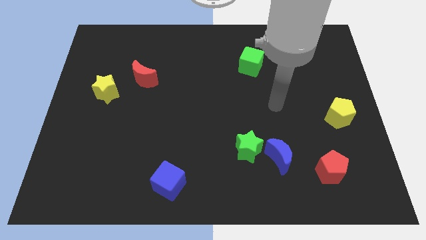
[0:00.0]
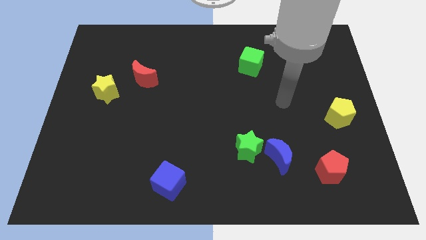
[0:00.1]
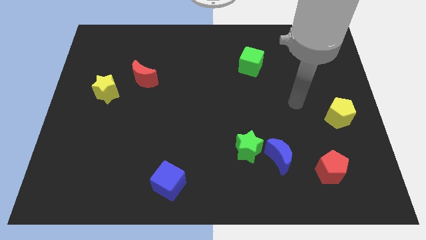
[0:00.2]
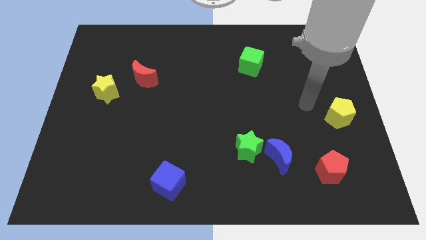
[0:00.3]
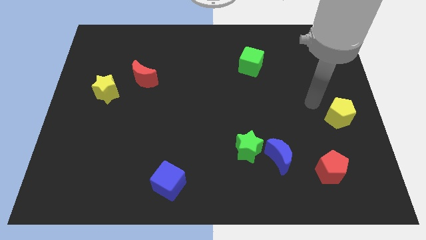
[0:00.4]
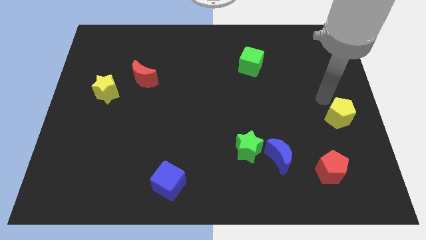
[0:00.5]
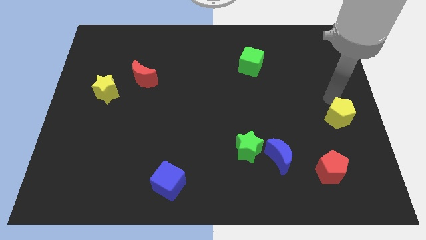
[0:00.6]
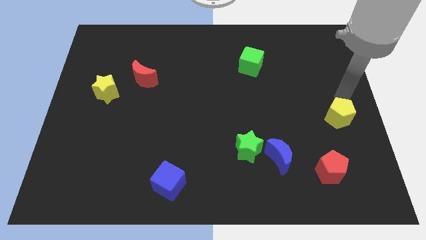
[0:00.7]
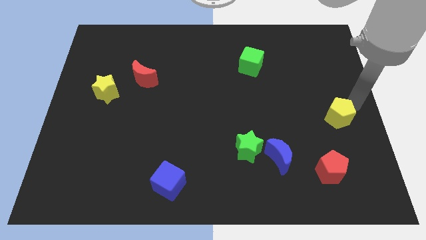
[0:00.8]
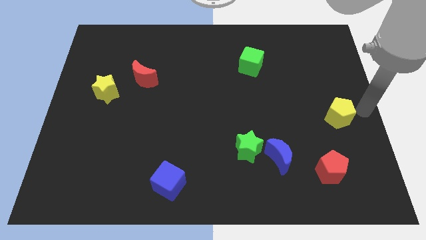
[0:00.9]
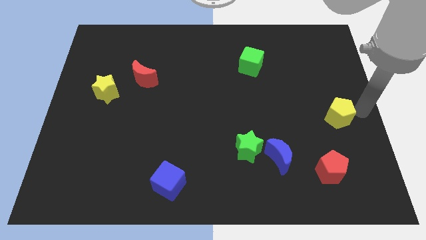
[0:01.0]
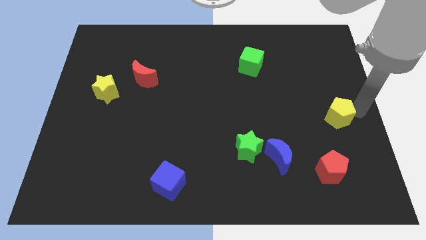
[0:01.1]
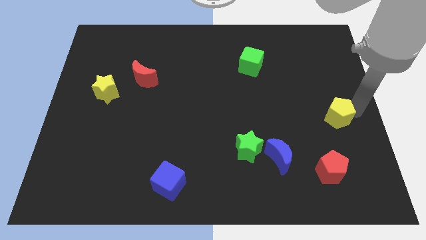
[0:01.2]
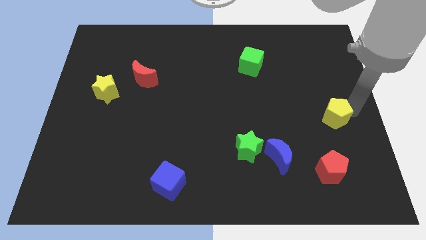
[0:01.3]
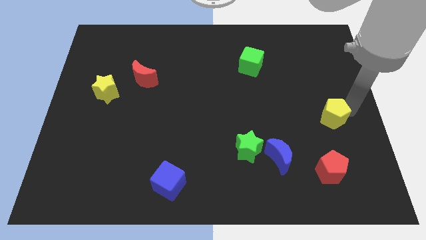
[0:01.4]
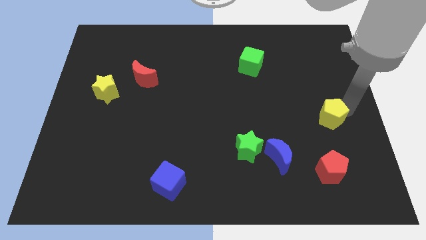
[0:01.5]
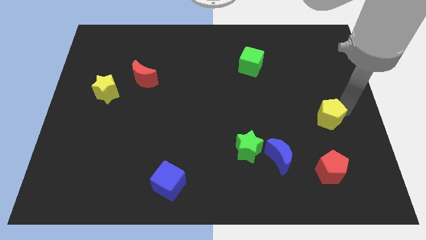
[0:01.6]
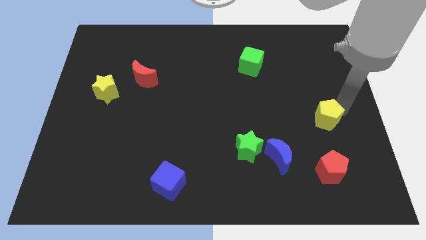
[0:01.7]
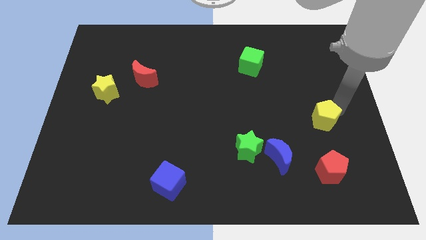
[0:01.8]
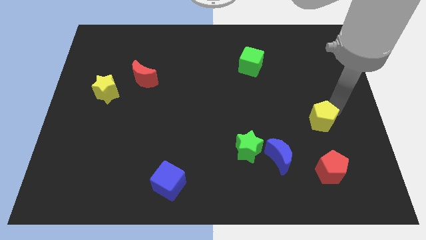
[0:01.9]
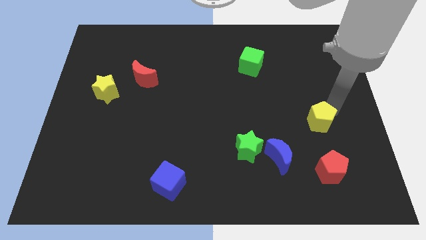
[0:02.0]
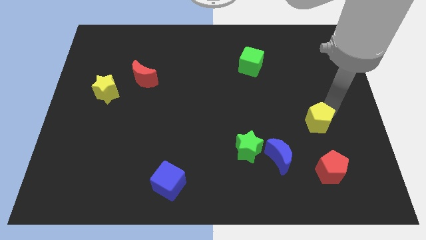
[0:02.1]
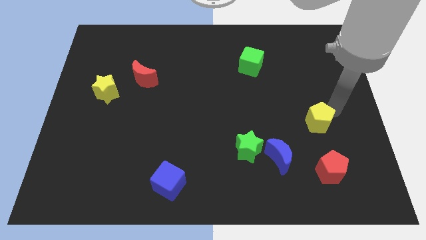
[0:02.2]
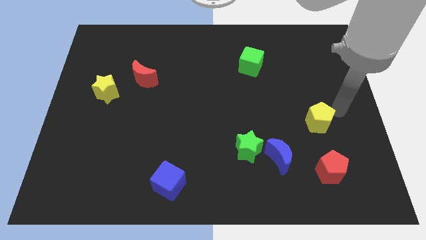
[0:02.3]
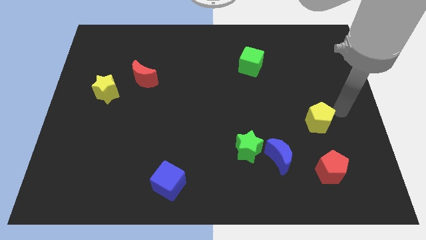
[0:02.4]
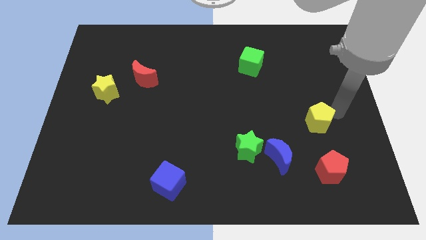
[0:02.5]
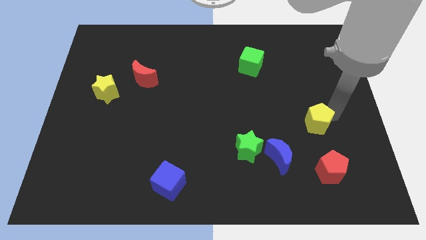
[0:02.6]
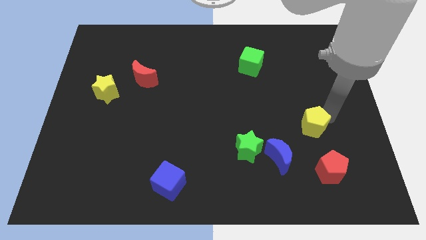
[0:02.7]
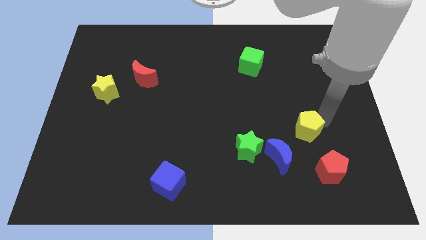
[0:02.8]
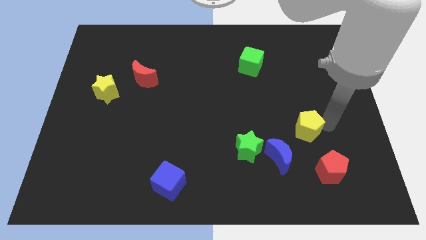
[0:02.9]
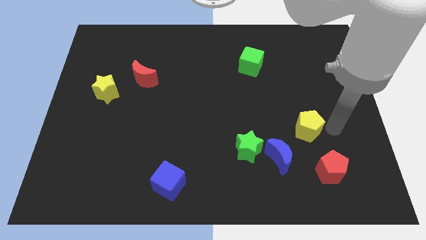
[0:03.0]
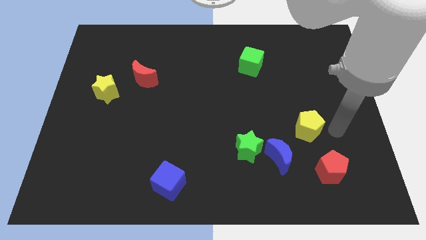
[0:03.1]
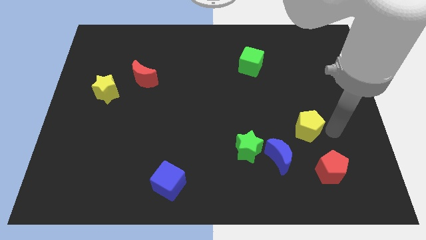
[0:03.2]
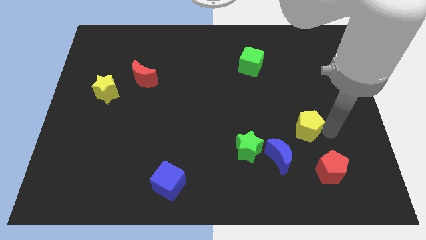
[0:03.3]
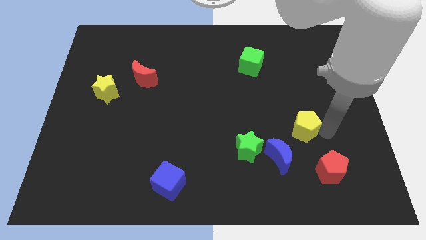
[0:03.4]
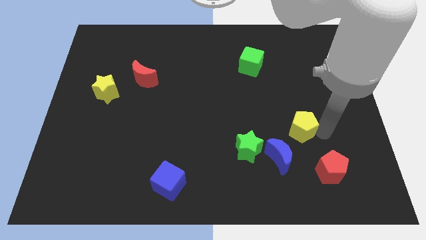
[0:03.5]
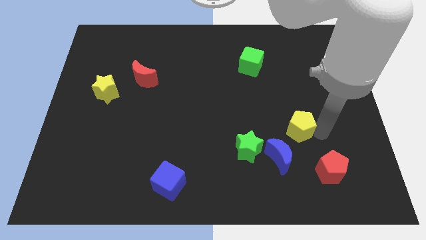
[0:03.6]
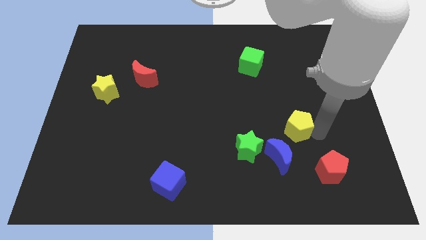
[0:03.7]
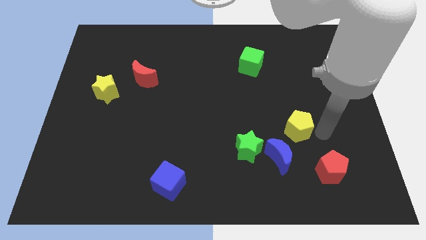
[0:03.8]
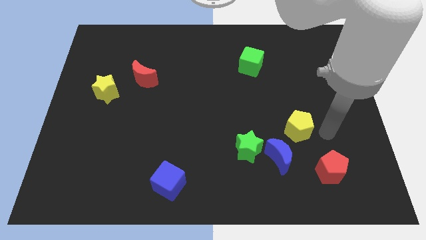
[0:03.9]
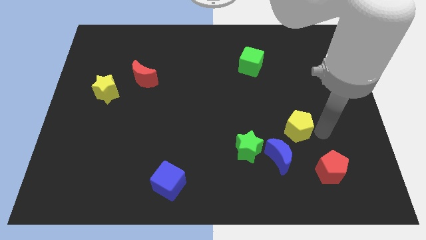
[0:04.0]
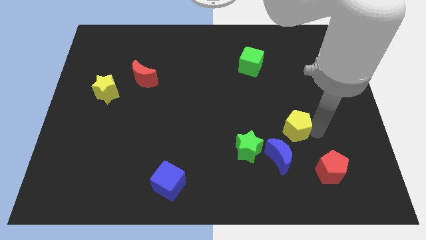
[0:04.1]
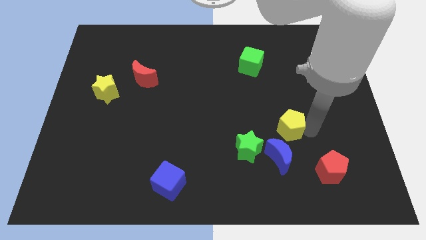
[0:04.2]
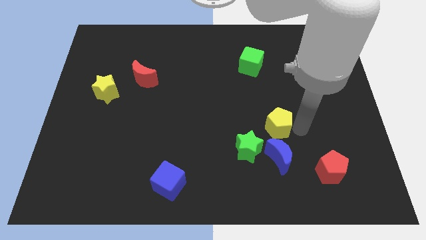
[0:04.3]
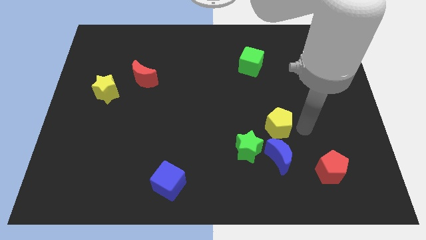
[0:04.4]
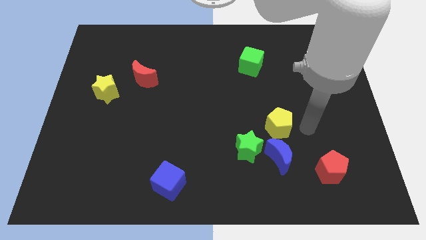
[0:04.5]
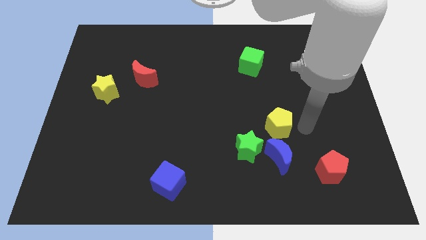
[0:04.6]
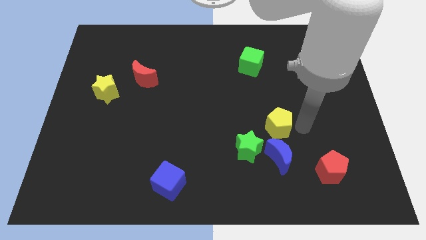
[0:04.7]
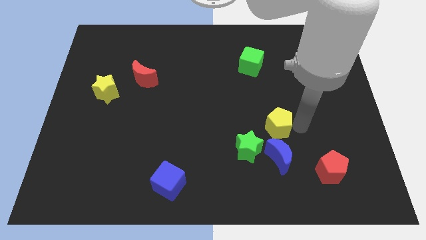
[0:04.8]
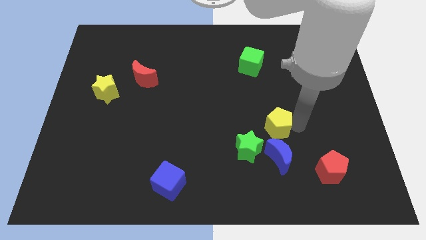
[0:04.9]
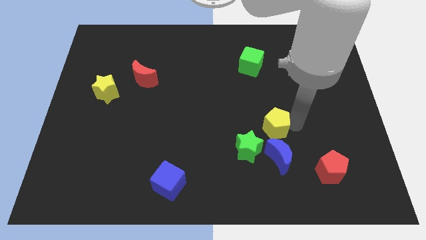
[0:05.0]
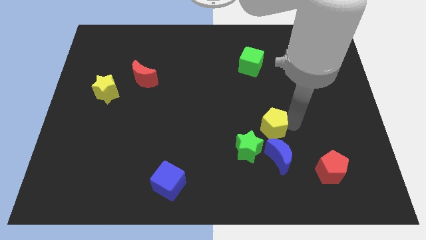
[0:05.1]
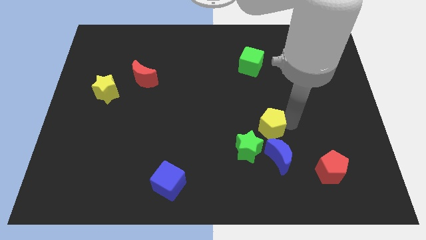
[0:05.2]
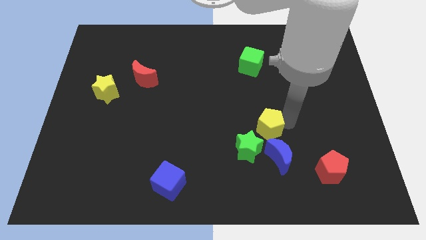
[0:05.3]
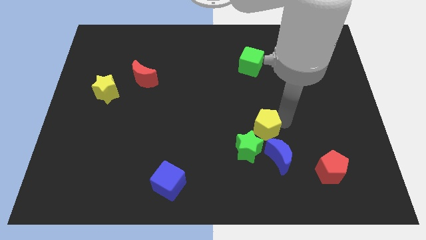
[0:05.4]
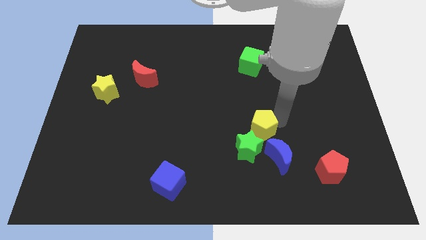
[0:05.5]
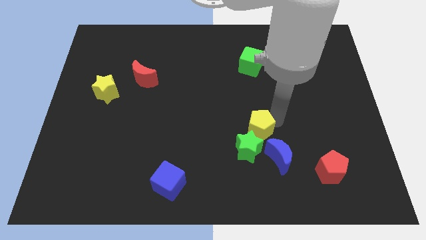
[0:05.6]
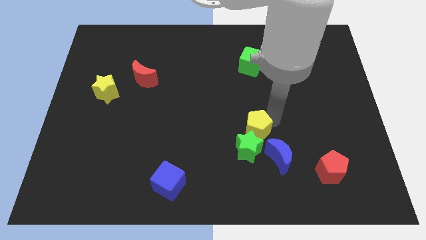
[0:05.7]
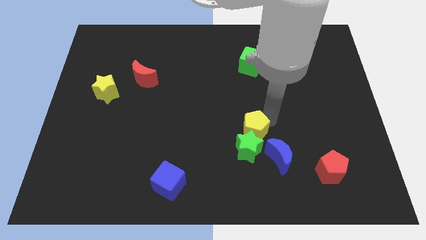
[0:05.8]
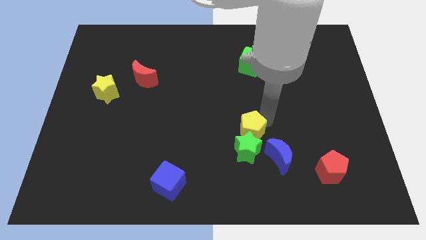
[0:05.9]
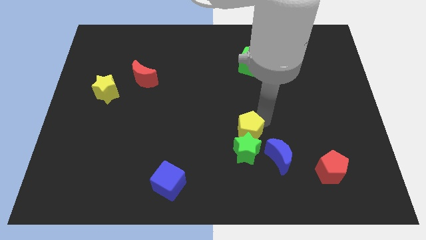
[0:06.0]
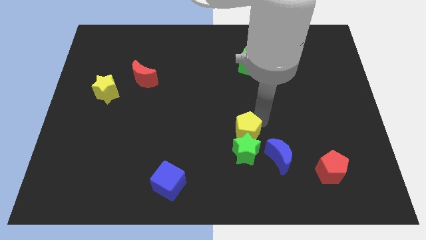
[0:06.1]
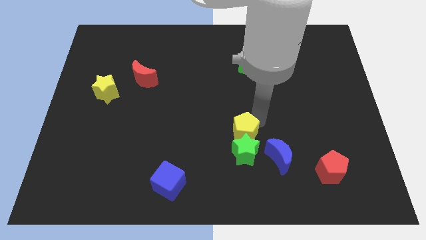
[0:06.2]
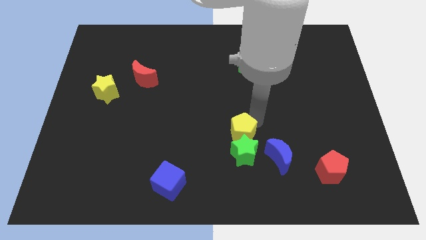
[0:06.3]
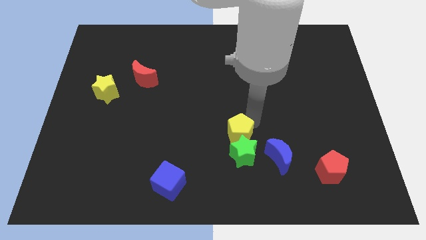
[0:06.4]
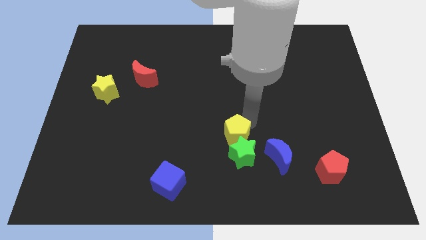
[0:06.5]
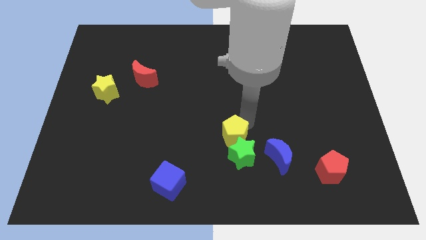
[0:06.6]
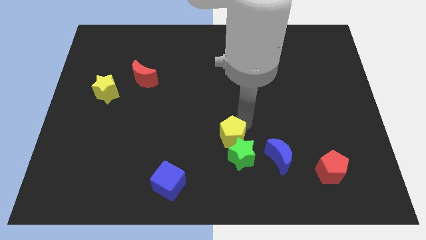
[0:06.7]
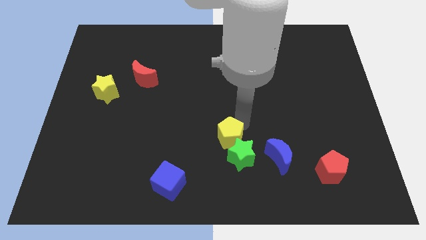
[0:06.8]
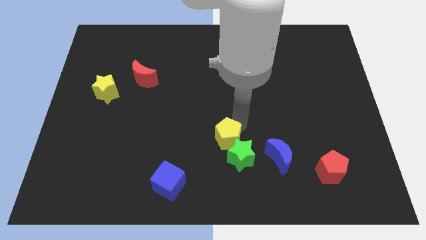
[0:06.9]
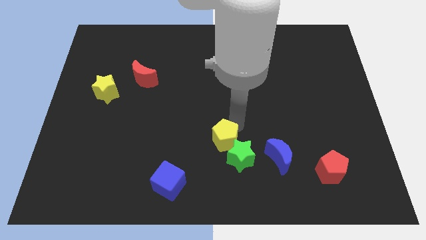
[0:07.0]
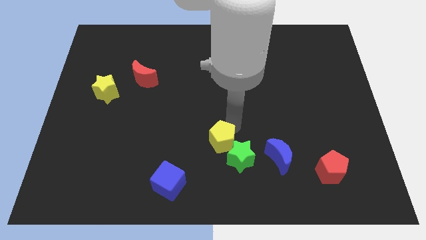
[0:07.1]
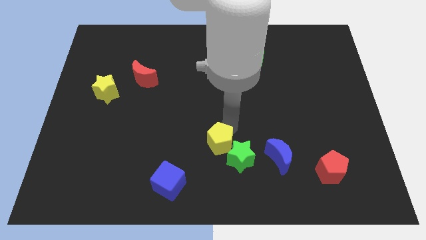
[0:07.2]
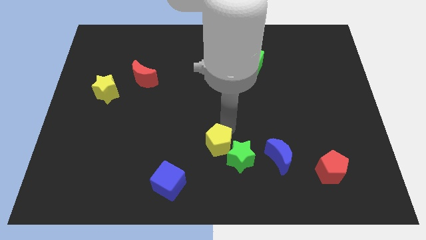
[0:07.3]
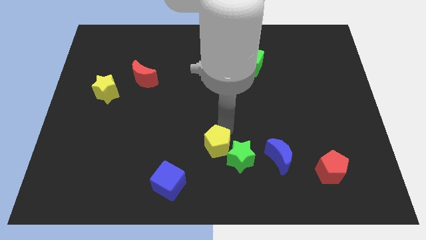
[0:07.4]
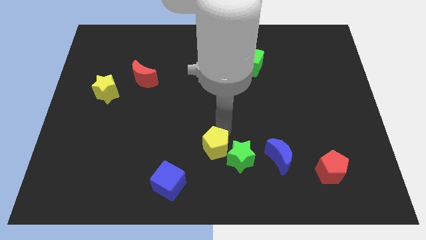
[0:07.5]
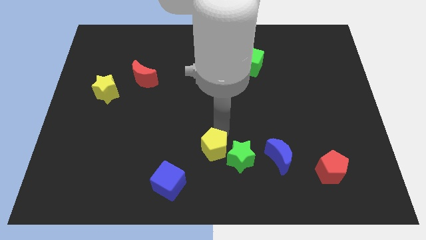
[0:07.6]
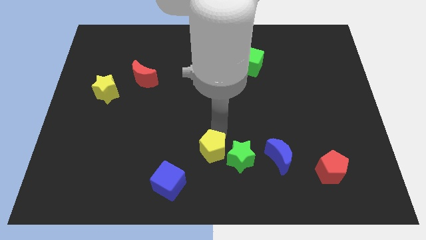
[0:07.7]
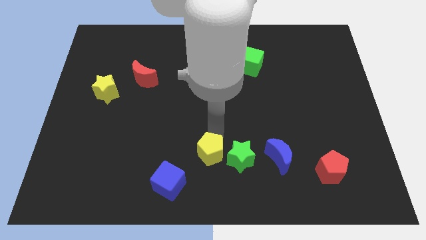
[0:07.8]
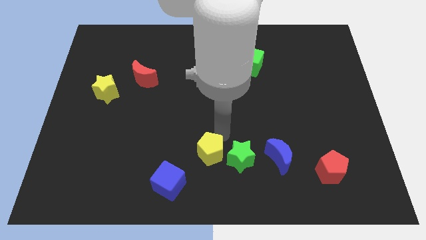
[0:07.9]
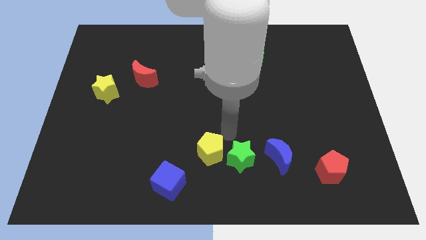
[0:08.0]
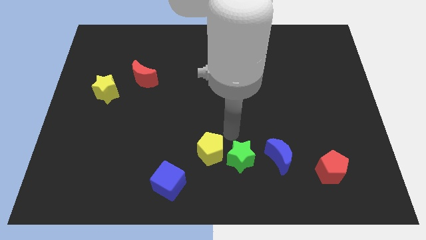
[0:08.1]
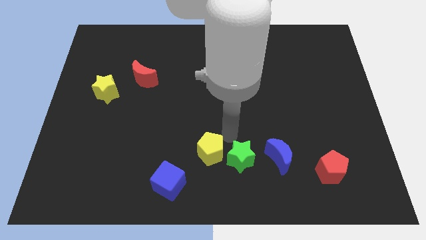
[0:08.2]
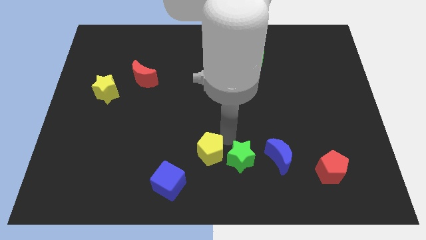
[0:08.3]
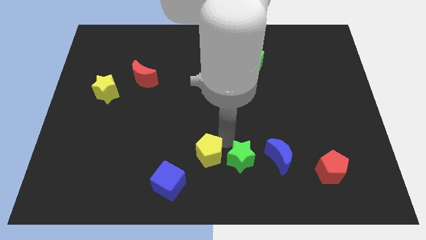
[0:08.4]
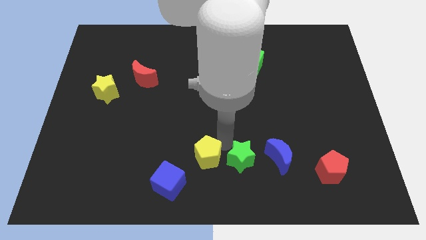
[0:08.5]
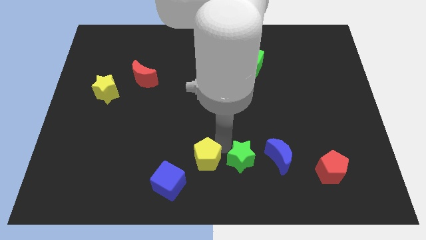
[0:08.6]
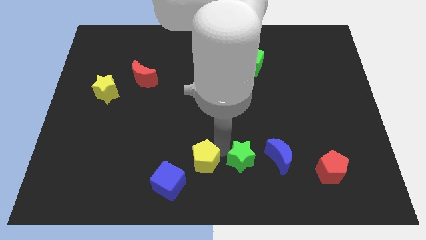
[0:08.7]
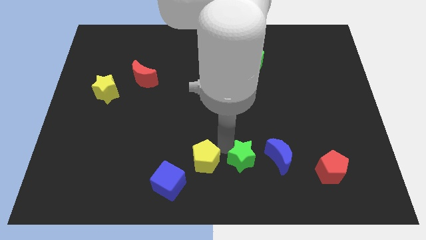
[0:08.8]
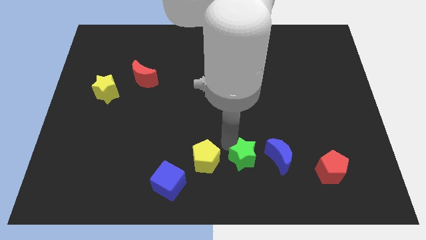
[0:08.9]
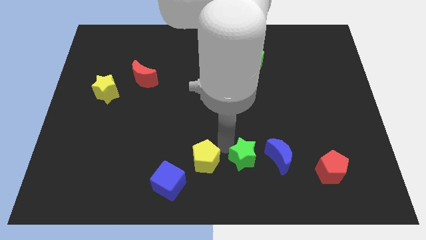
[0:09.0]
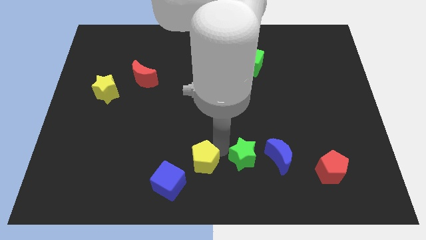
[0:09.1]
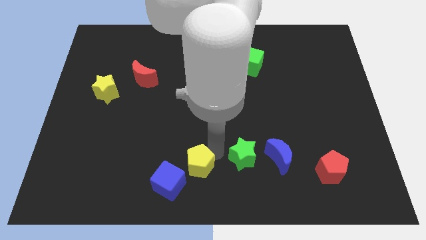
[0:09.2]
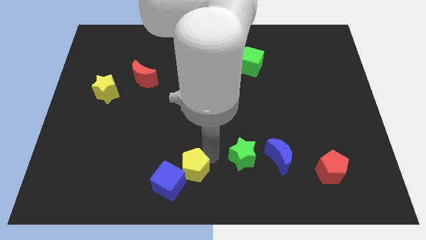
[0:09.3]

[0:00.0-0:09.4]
slide the yellow pentagon next to the blue cube
